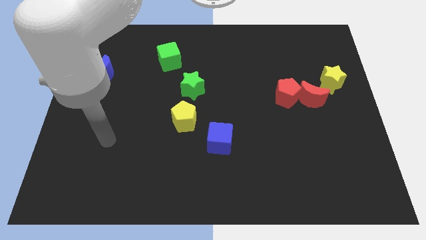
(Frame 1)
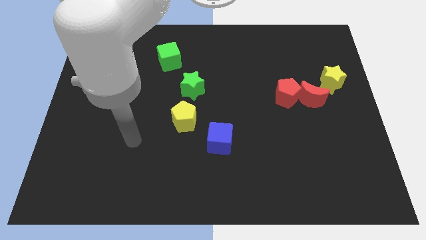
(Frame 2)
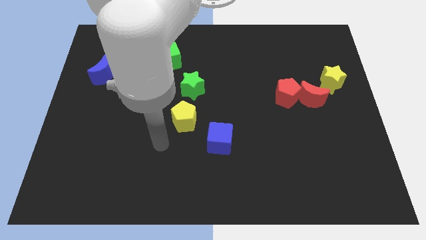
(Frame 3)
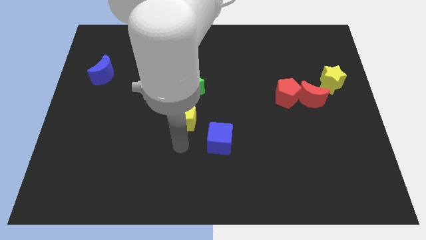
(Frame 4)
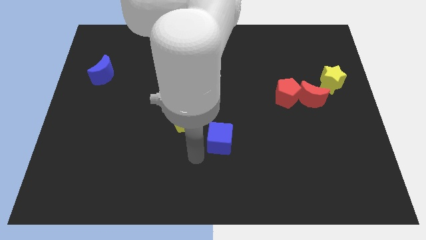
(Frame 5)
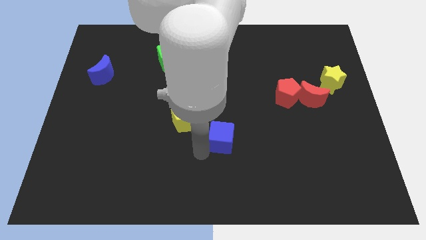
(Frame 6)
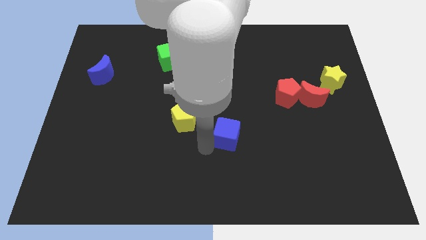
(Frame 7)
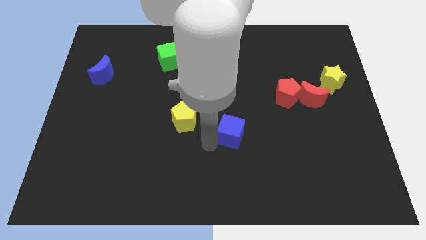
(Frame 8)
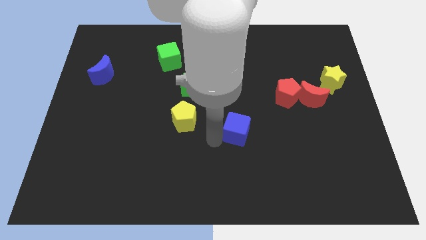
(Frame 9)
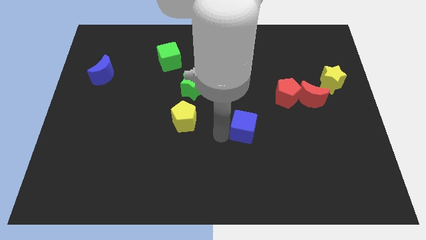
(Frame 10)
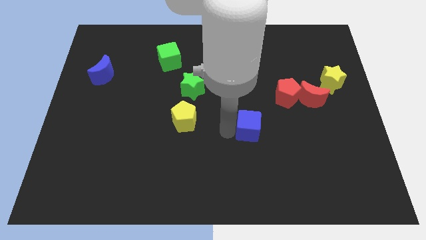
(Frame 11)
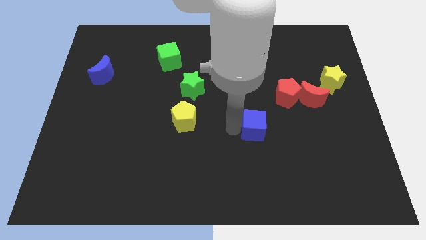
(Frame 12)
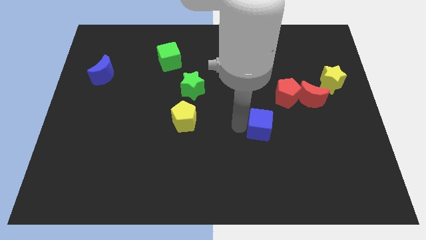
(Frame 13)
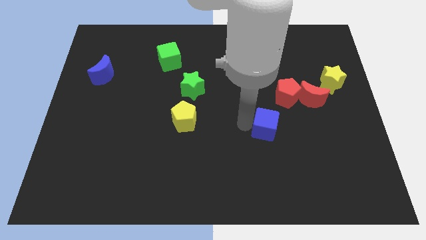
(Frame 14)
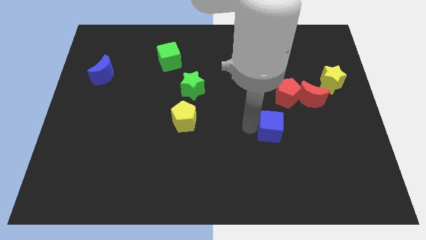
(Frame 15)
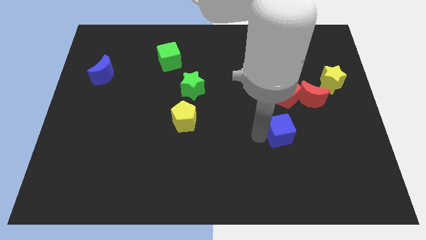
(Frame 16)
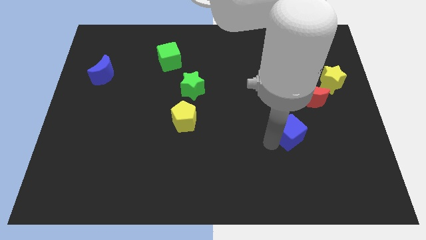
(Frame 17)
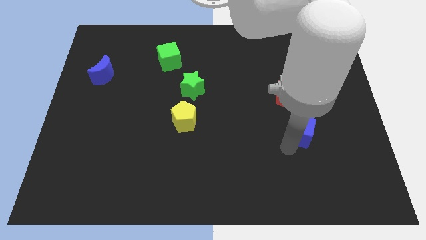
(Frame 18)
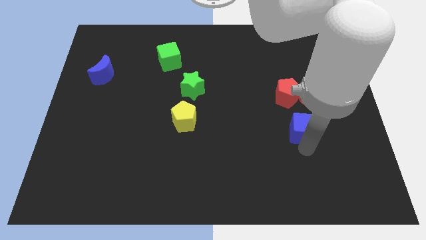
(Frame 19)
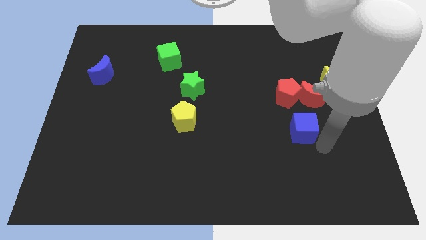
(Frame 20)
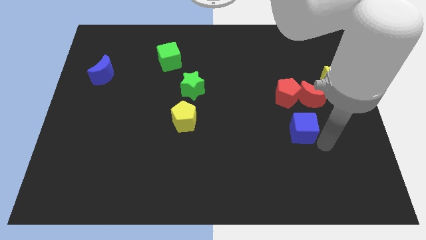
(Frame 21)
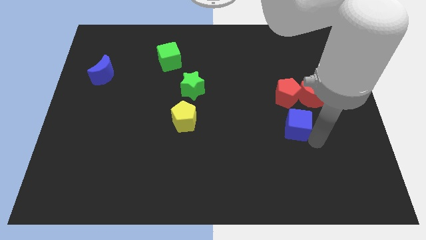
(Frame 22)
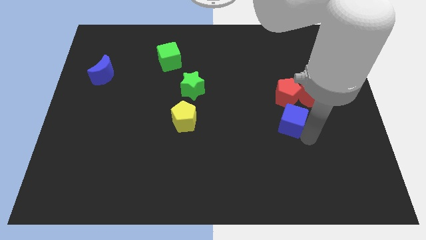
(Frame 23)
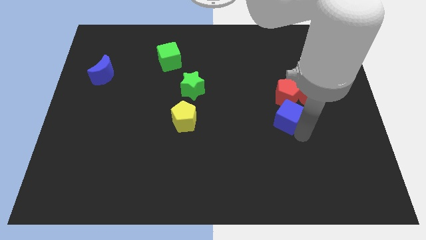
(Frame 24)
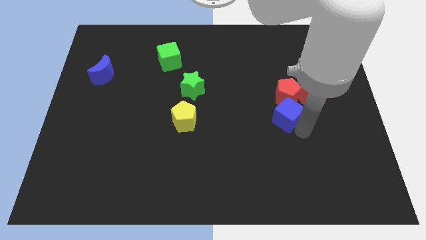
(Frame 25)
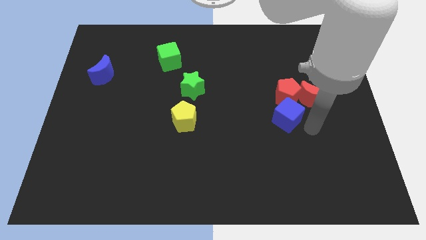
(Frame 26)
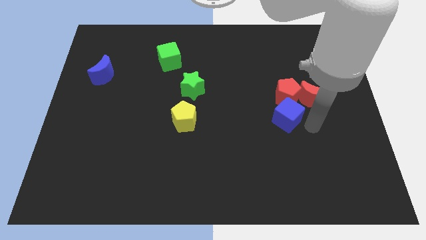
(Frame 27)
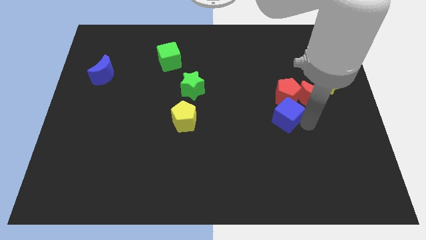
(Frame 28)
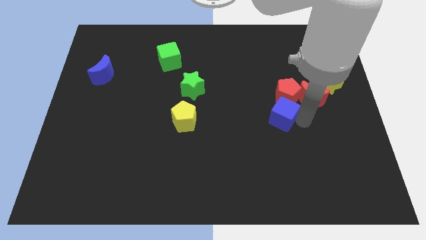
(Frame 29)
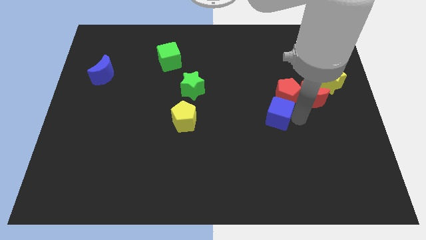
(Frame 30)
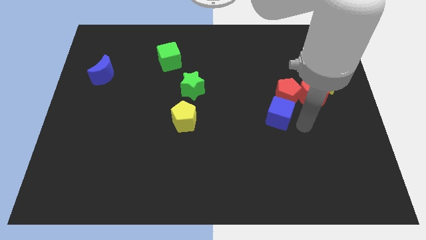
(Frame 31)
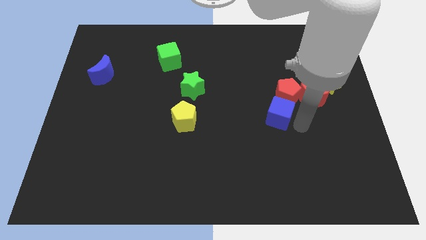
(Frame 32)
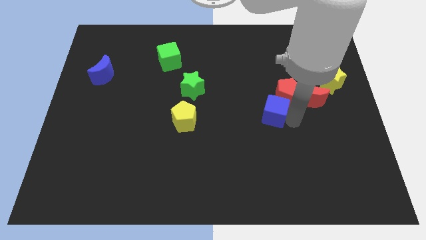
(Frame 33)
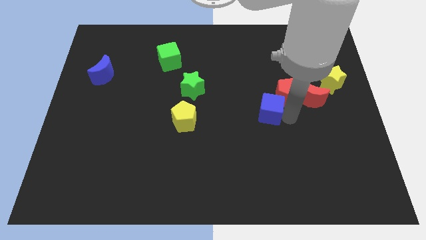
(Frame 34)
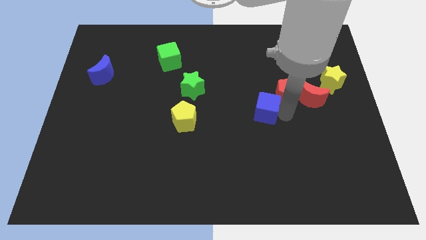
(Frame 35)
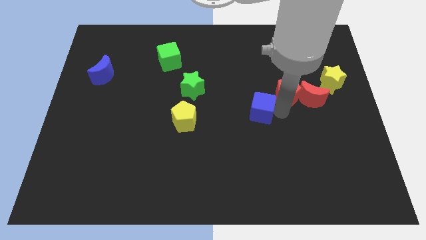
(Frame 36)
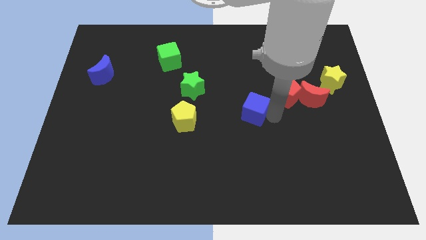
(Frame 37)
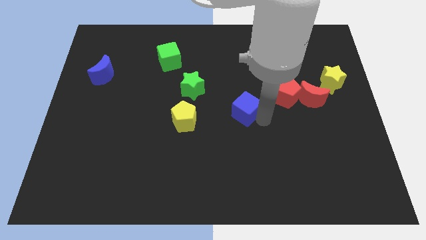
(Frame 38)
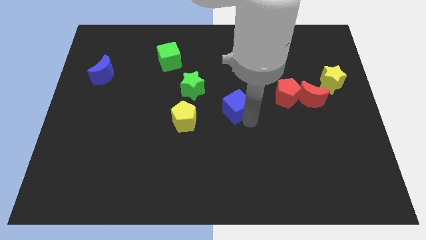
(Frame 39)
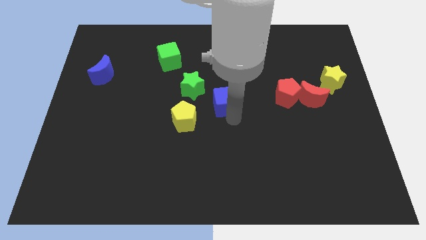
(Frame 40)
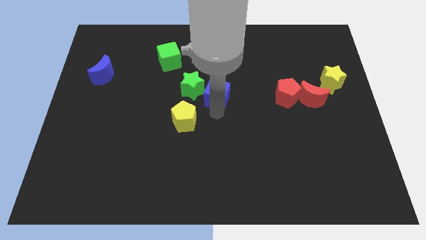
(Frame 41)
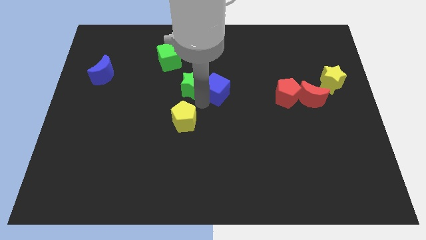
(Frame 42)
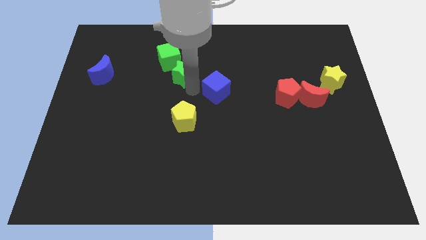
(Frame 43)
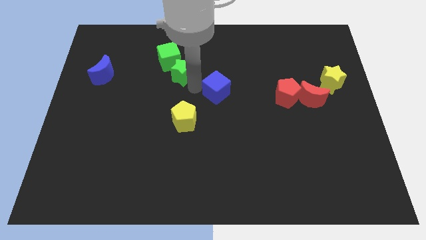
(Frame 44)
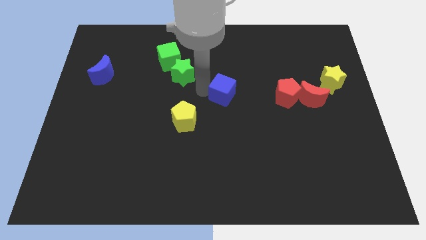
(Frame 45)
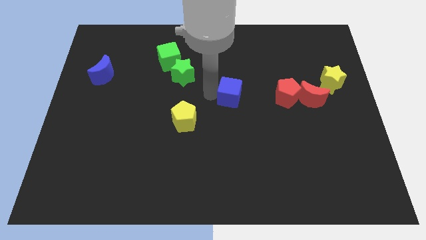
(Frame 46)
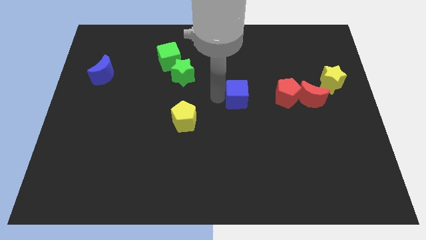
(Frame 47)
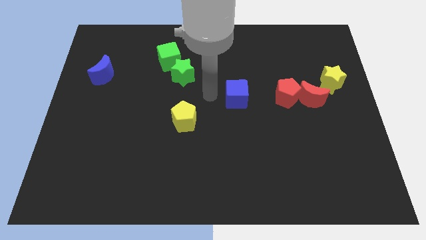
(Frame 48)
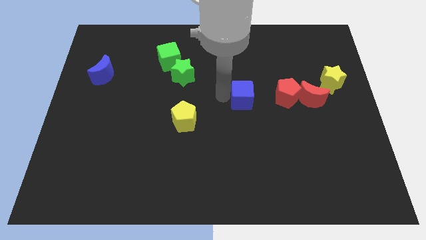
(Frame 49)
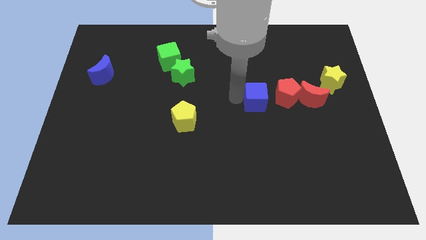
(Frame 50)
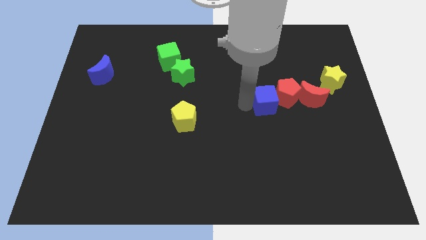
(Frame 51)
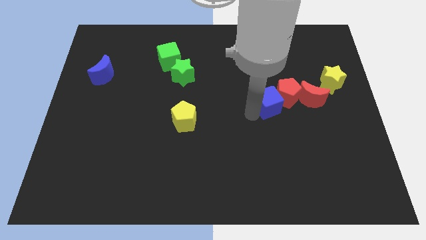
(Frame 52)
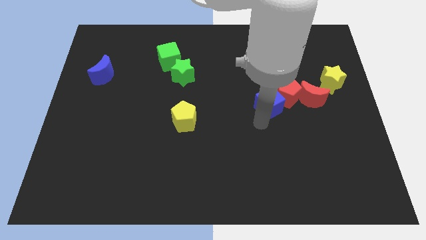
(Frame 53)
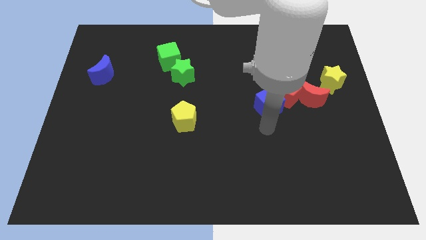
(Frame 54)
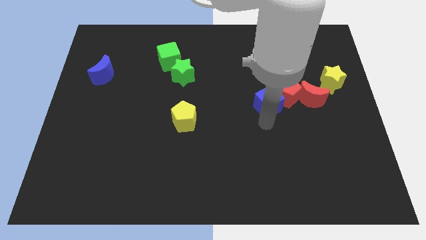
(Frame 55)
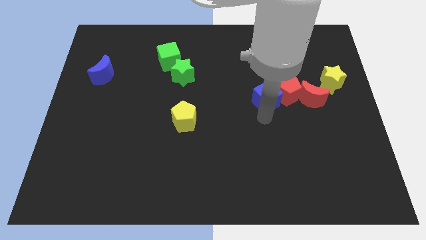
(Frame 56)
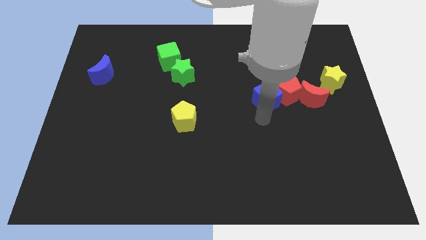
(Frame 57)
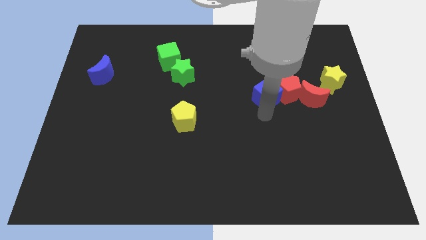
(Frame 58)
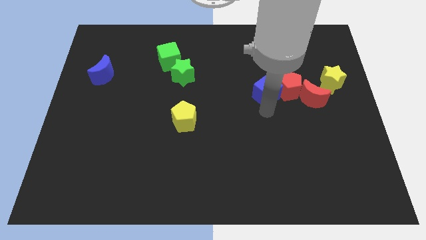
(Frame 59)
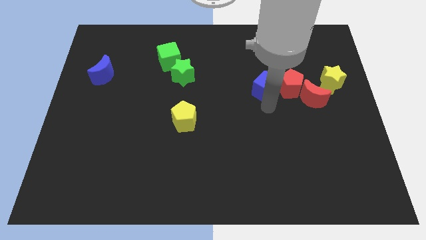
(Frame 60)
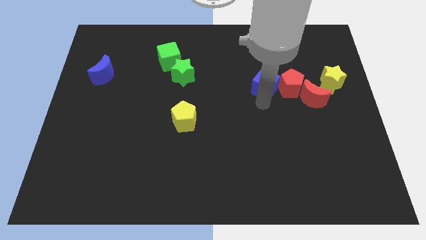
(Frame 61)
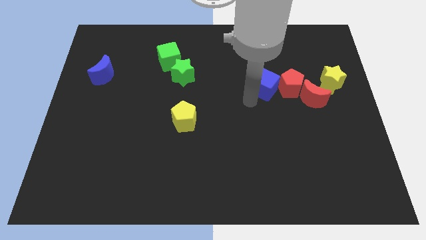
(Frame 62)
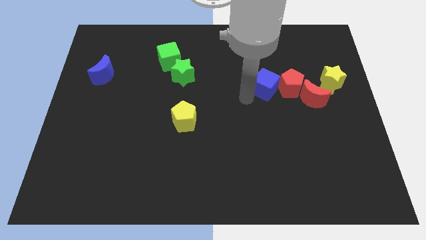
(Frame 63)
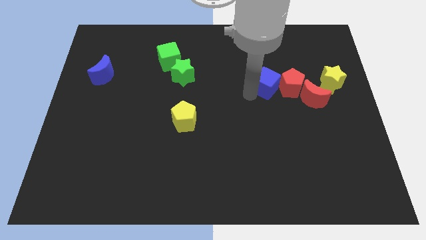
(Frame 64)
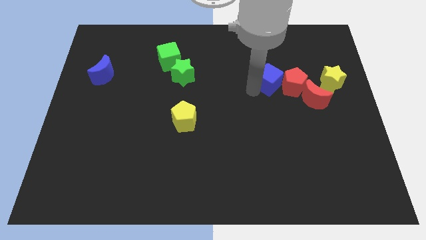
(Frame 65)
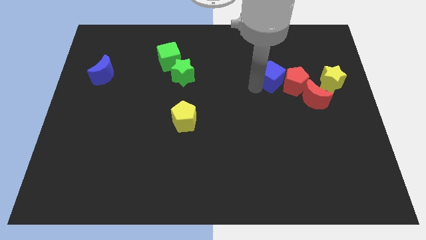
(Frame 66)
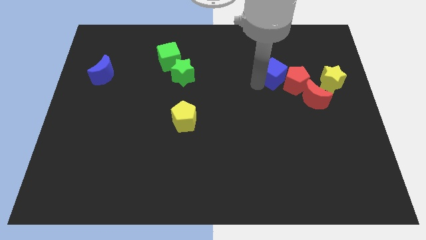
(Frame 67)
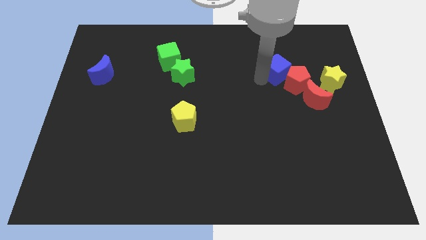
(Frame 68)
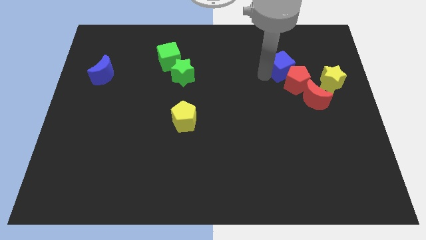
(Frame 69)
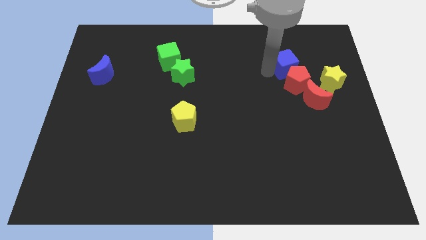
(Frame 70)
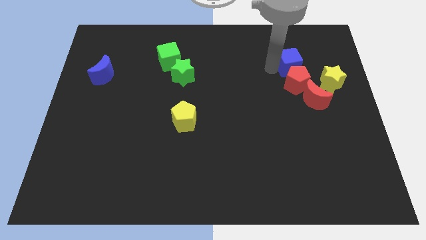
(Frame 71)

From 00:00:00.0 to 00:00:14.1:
slide the blue cube above the red moon
